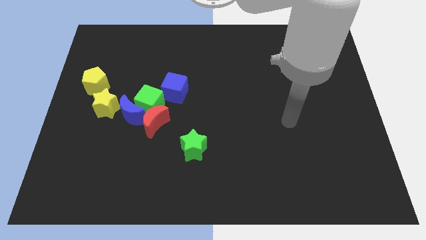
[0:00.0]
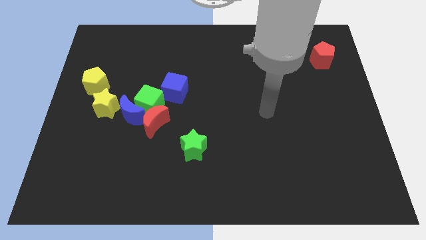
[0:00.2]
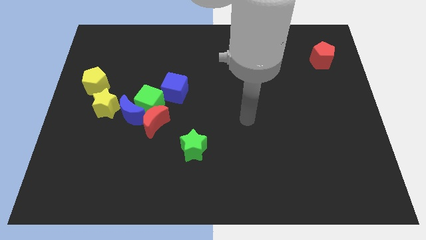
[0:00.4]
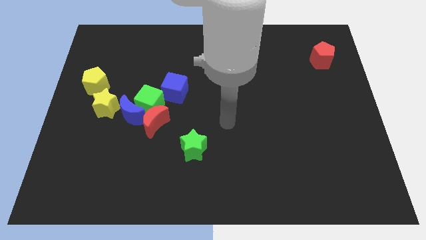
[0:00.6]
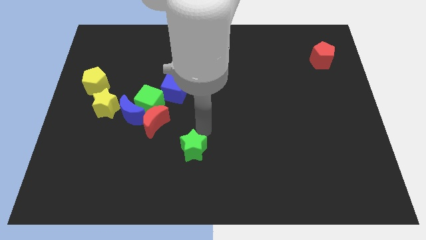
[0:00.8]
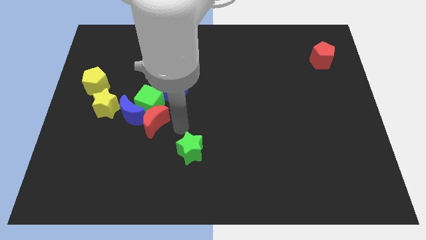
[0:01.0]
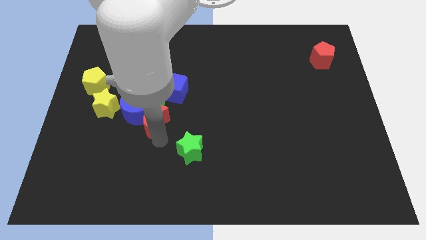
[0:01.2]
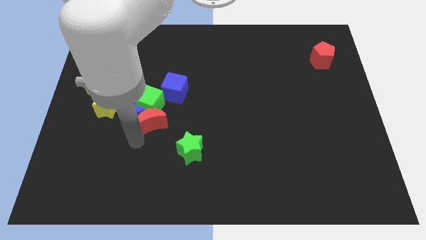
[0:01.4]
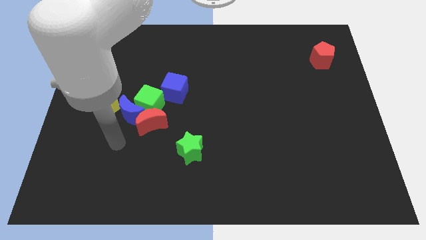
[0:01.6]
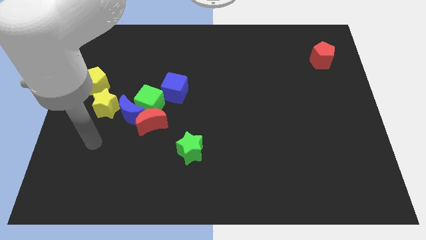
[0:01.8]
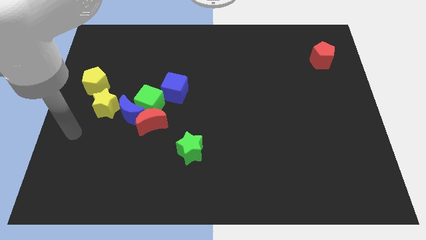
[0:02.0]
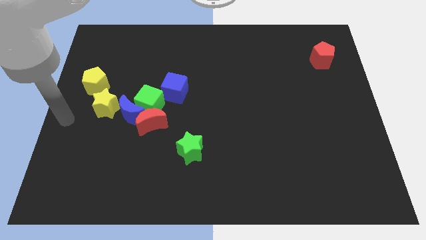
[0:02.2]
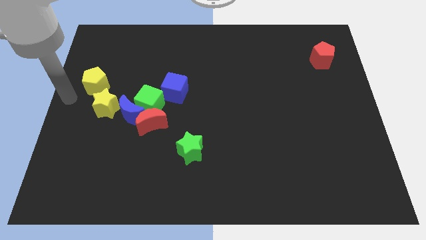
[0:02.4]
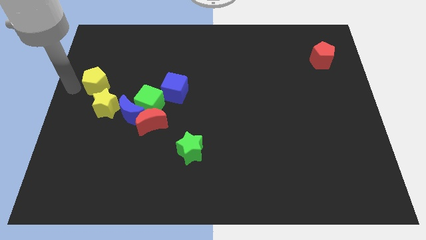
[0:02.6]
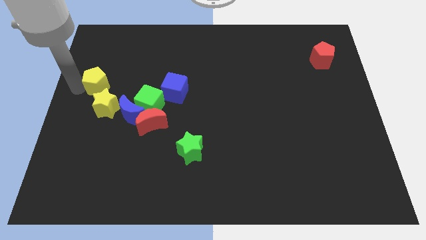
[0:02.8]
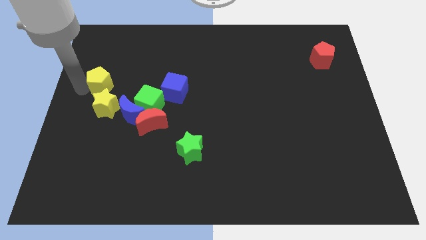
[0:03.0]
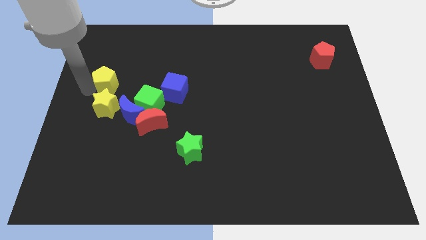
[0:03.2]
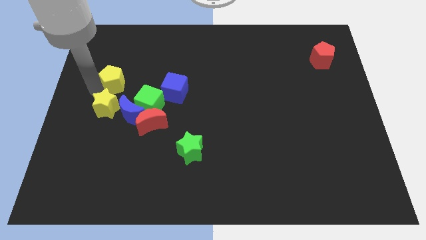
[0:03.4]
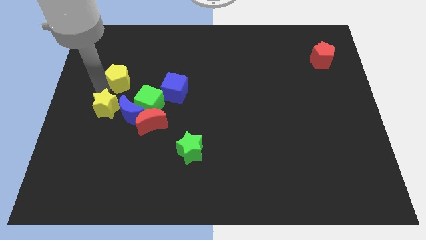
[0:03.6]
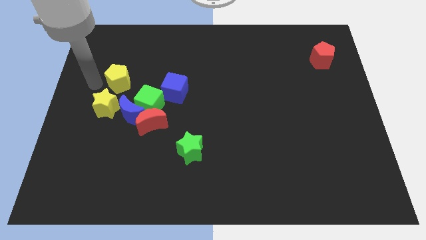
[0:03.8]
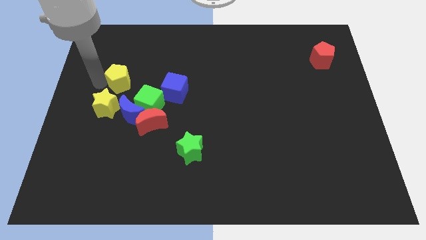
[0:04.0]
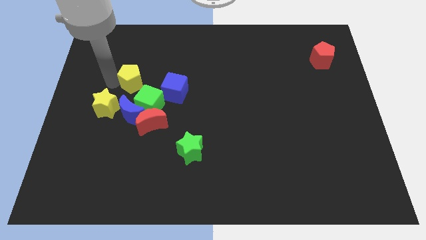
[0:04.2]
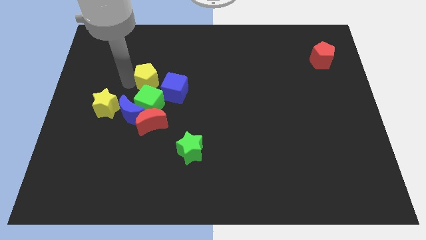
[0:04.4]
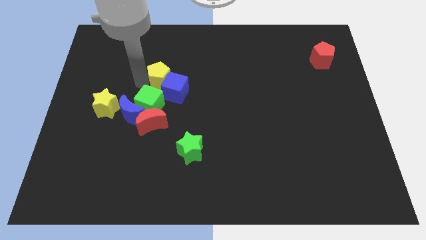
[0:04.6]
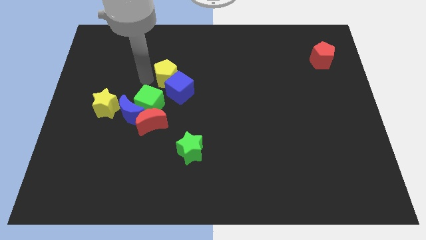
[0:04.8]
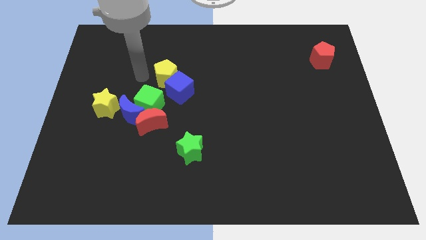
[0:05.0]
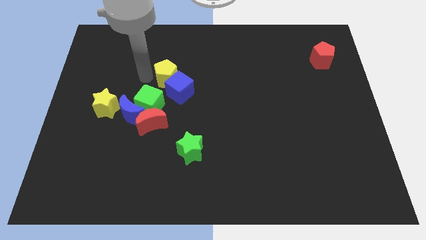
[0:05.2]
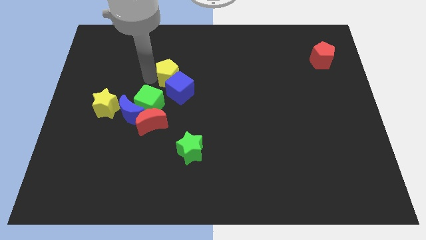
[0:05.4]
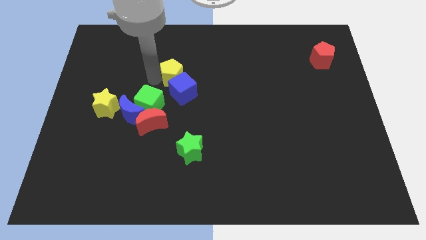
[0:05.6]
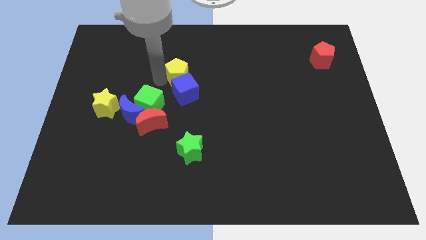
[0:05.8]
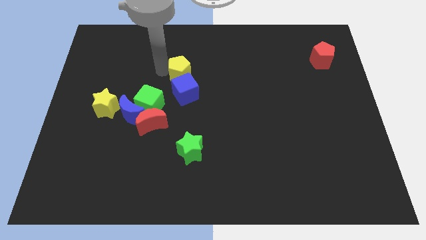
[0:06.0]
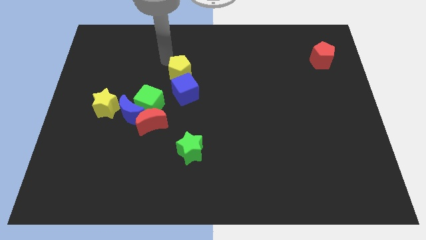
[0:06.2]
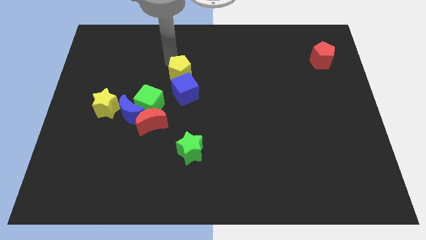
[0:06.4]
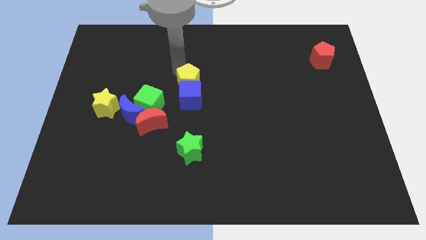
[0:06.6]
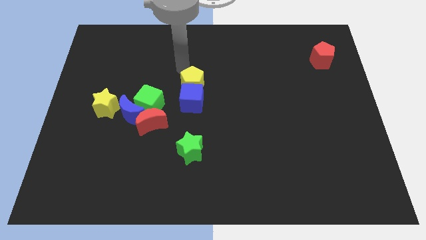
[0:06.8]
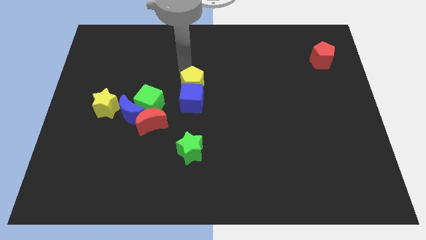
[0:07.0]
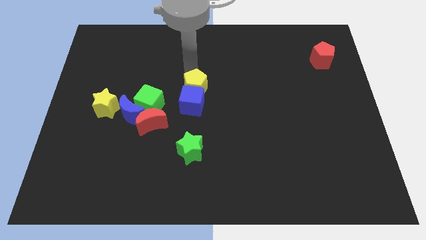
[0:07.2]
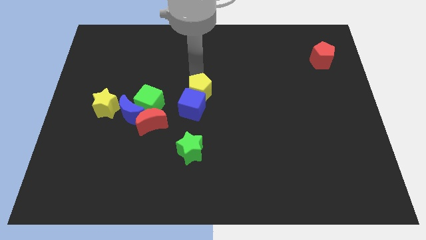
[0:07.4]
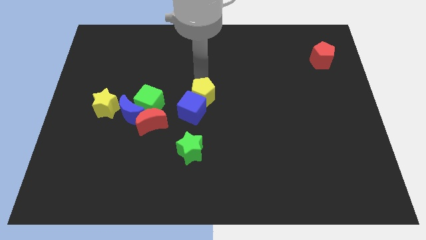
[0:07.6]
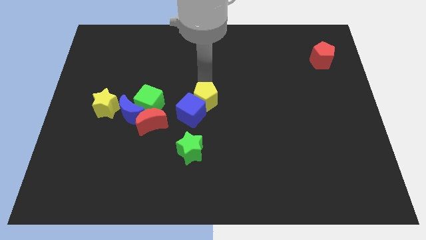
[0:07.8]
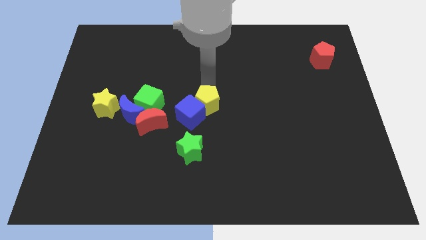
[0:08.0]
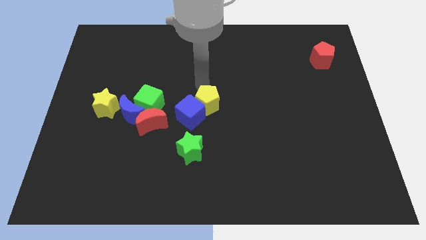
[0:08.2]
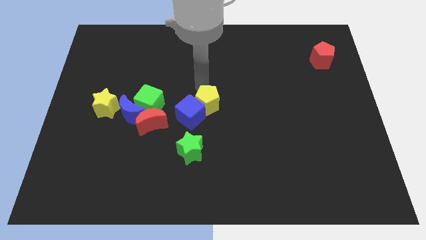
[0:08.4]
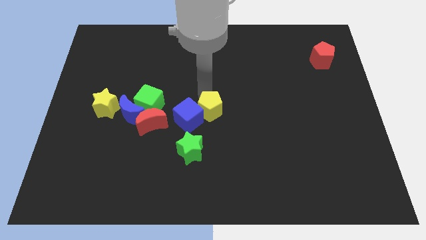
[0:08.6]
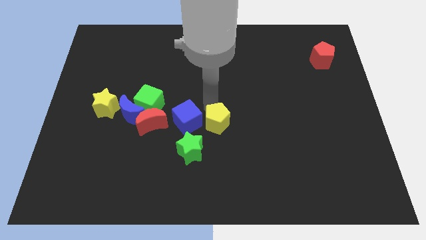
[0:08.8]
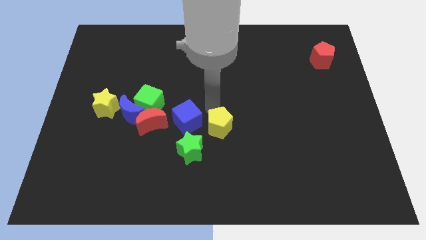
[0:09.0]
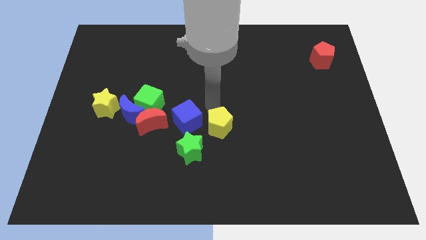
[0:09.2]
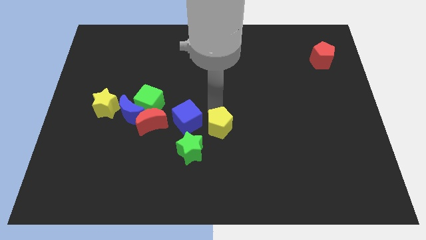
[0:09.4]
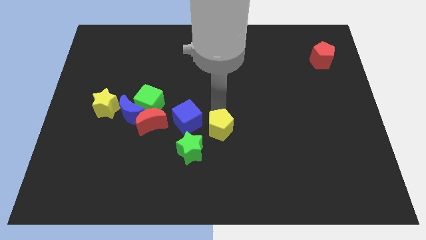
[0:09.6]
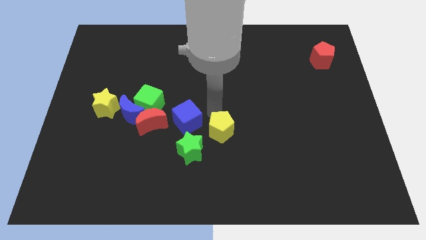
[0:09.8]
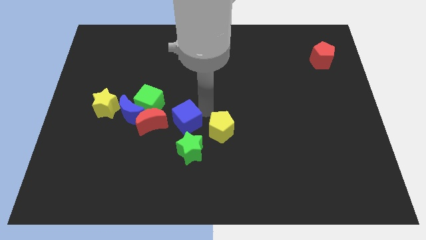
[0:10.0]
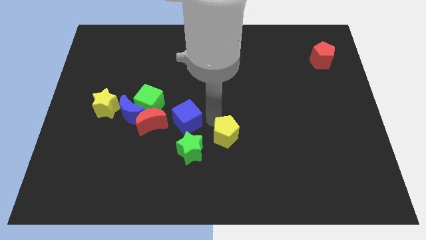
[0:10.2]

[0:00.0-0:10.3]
put the yellow pentagon to the right of the green star

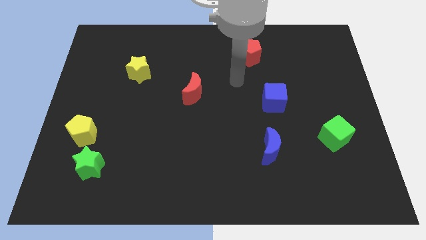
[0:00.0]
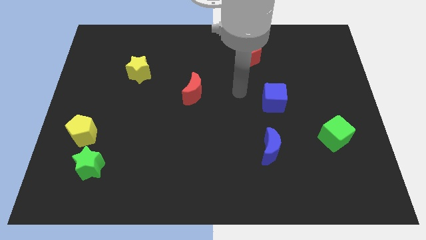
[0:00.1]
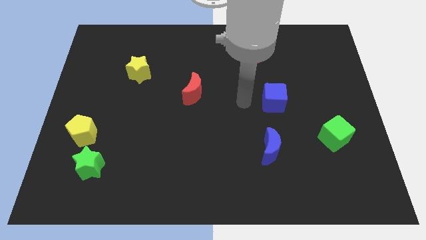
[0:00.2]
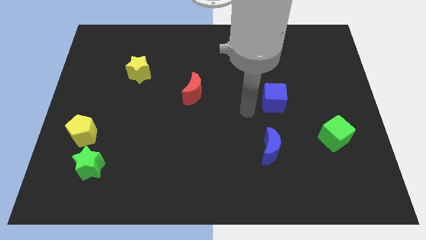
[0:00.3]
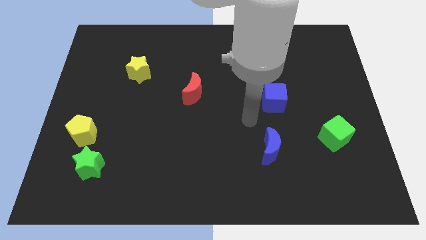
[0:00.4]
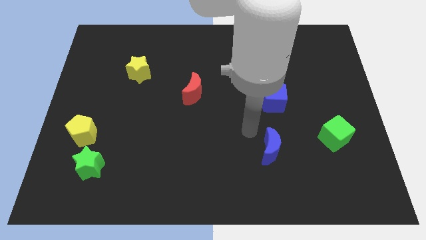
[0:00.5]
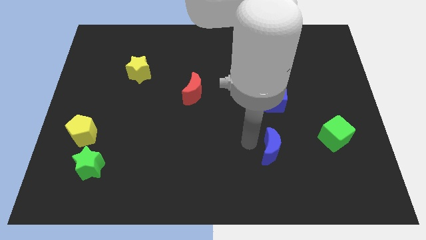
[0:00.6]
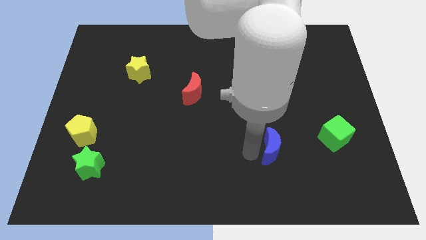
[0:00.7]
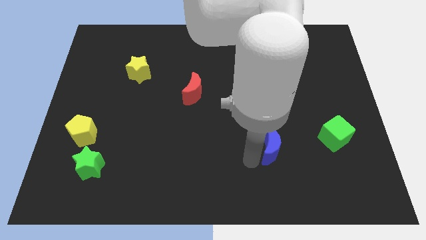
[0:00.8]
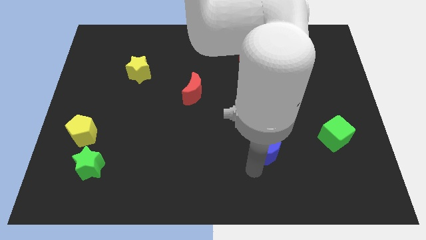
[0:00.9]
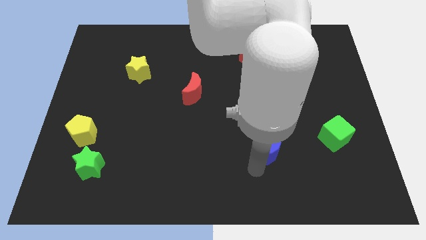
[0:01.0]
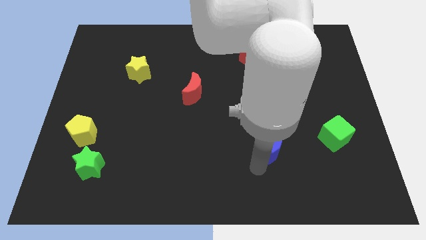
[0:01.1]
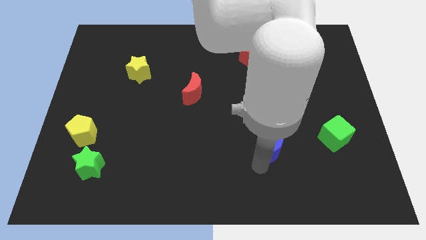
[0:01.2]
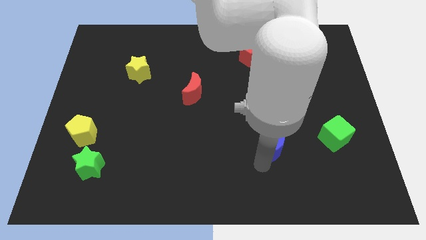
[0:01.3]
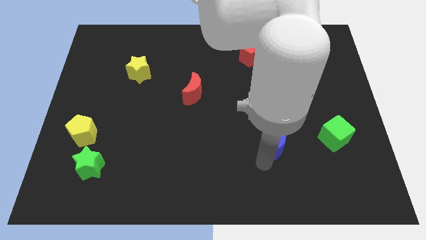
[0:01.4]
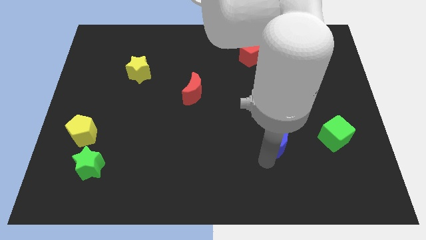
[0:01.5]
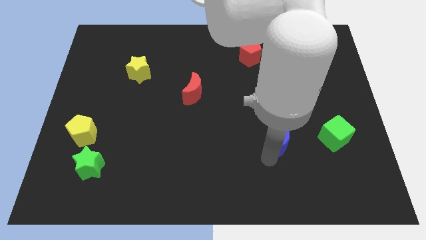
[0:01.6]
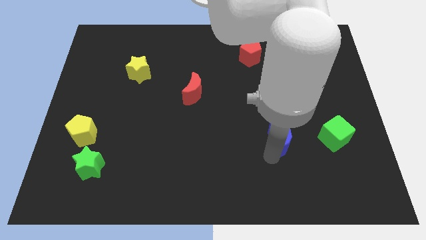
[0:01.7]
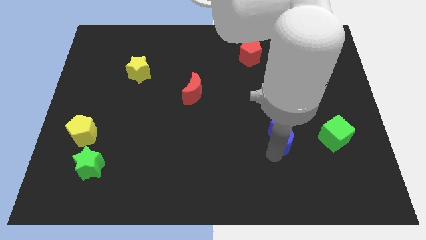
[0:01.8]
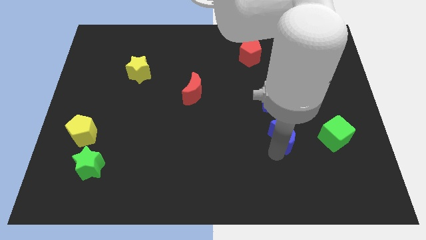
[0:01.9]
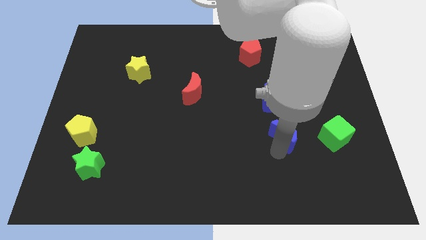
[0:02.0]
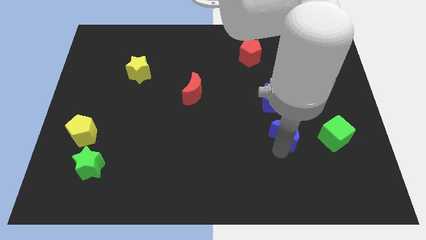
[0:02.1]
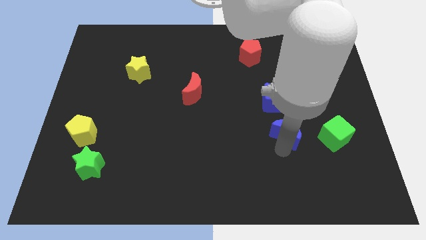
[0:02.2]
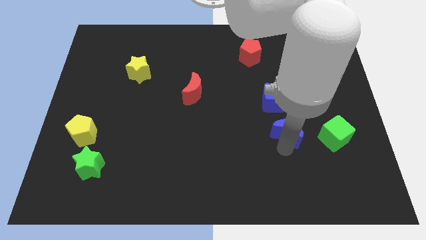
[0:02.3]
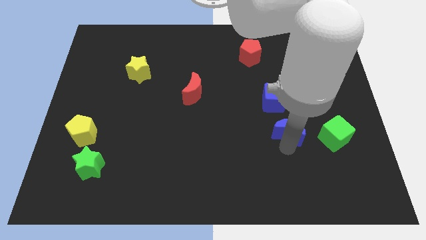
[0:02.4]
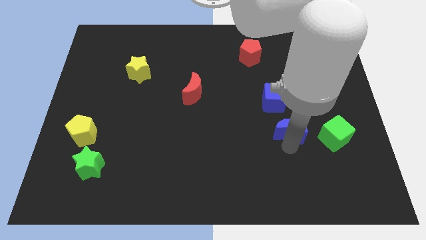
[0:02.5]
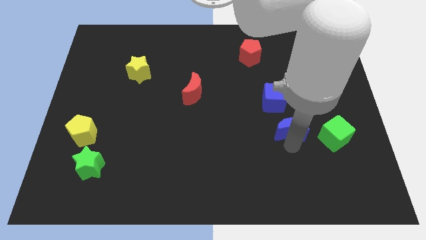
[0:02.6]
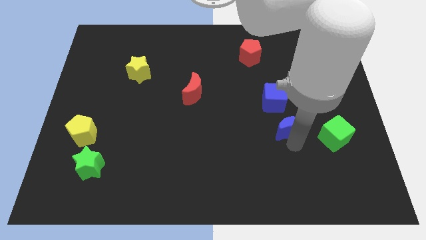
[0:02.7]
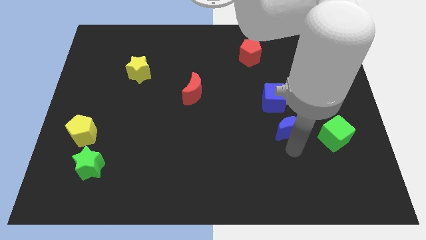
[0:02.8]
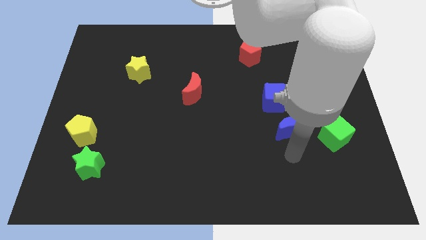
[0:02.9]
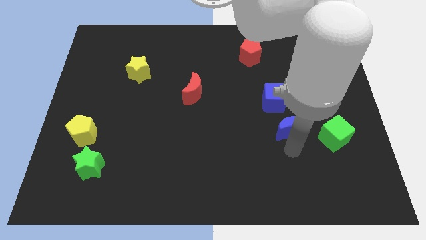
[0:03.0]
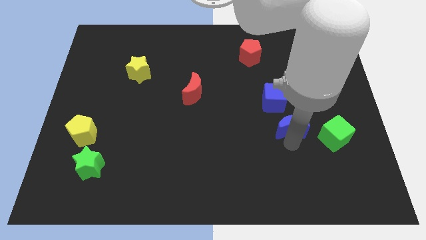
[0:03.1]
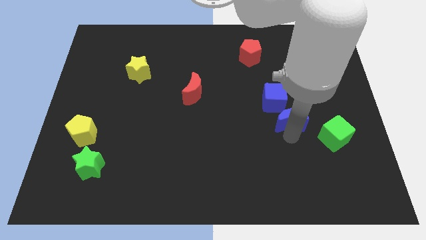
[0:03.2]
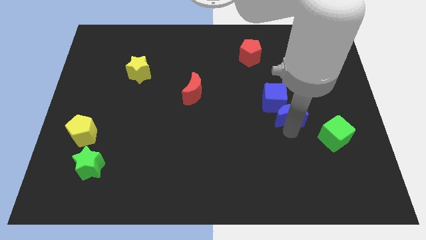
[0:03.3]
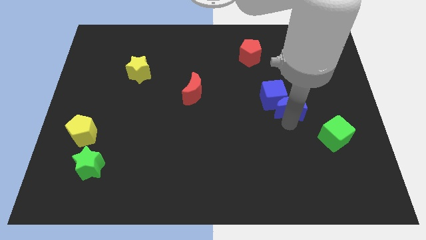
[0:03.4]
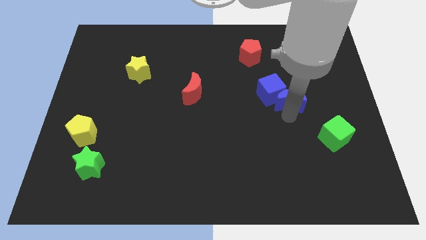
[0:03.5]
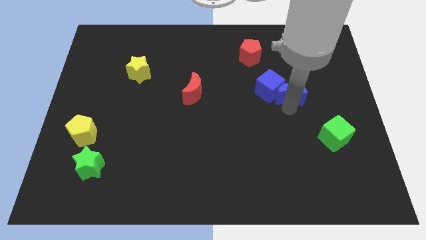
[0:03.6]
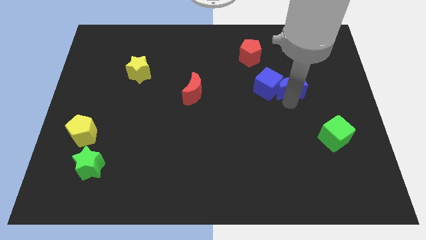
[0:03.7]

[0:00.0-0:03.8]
put the blue moon diagonally up and to the right of the blue cube
